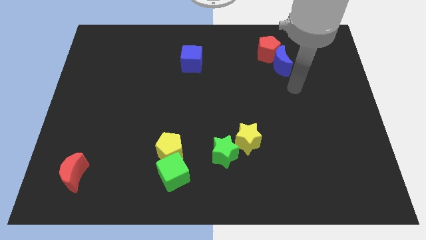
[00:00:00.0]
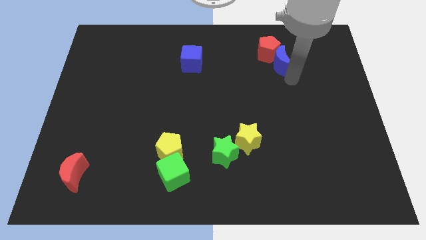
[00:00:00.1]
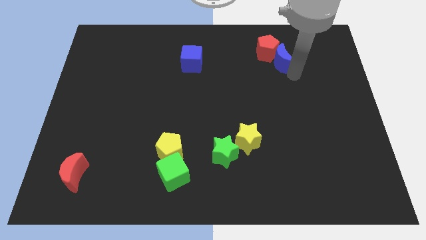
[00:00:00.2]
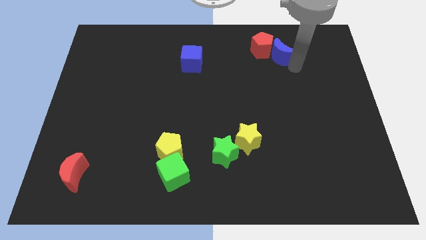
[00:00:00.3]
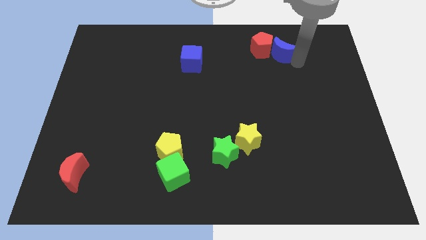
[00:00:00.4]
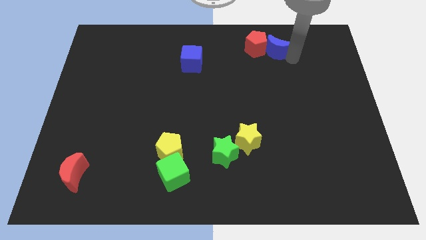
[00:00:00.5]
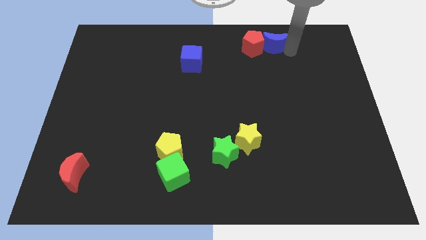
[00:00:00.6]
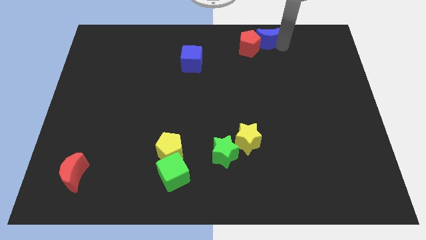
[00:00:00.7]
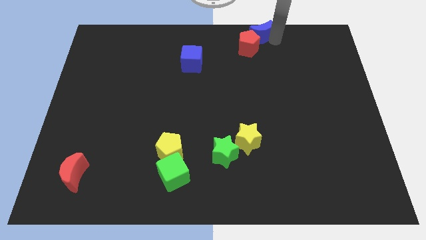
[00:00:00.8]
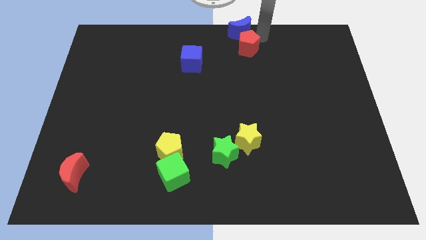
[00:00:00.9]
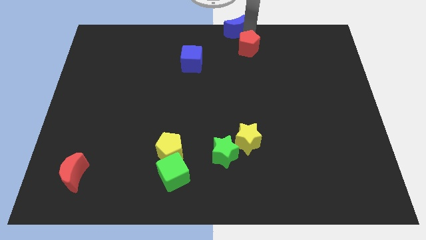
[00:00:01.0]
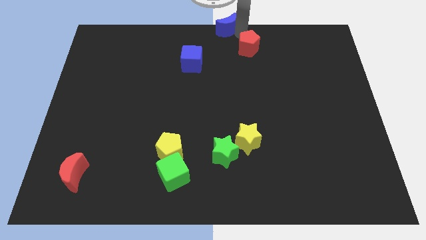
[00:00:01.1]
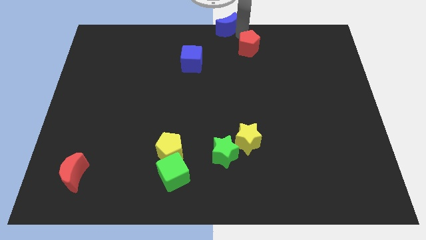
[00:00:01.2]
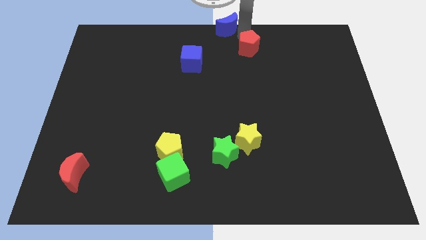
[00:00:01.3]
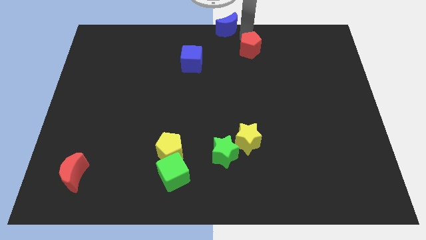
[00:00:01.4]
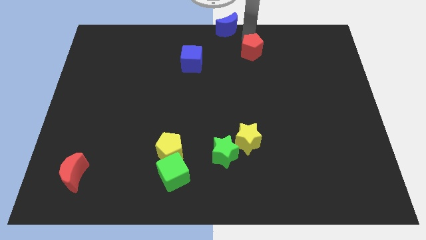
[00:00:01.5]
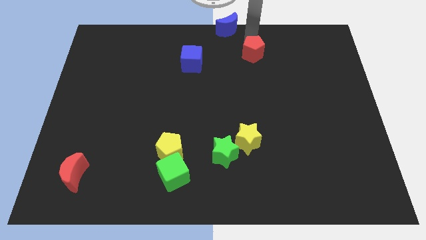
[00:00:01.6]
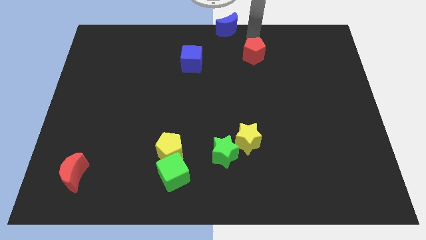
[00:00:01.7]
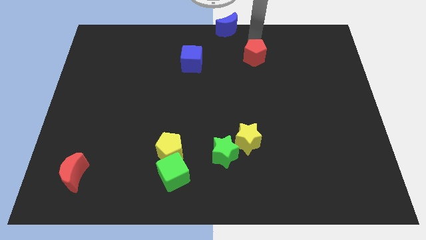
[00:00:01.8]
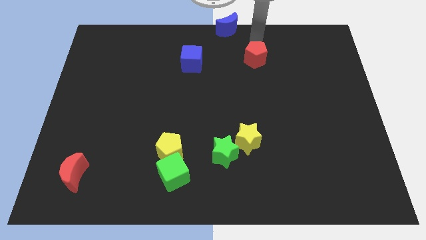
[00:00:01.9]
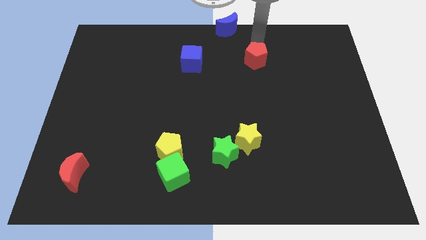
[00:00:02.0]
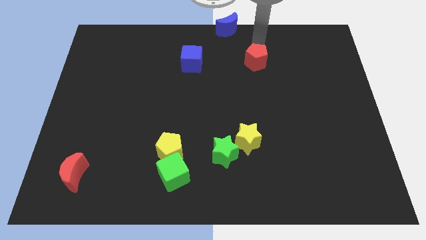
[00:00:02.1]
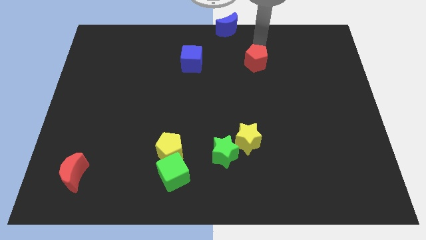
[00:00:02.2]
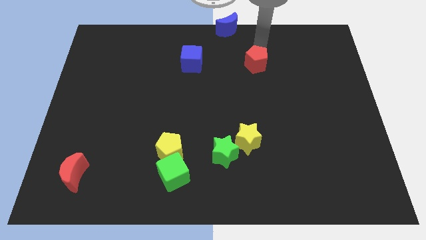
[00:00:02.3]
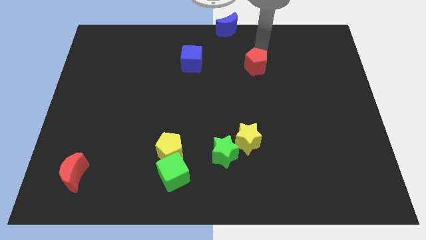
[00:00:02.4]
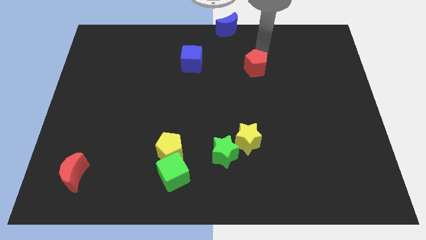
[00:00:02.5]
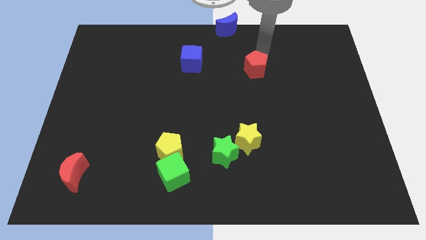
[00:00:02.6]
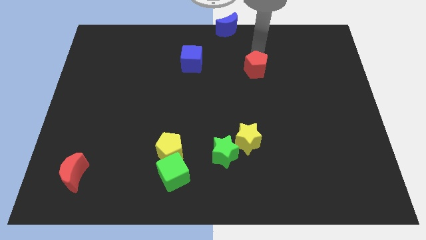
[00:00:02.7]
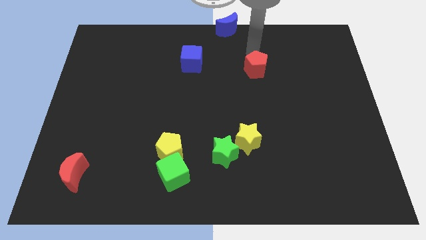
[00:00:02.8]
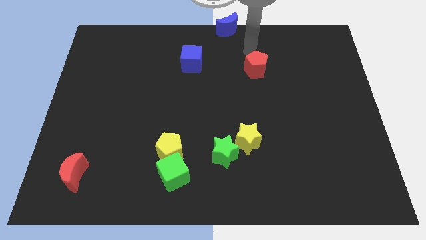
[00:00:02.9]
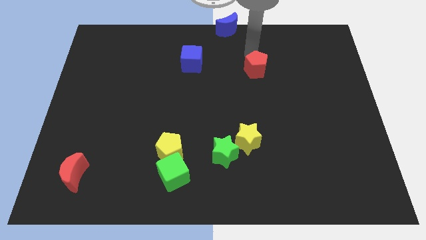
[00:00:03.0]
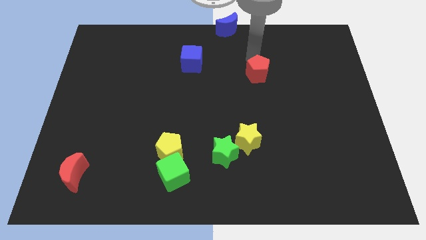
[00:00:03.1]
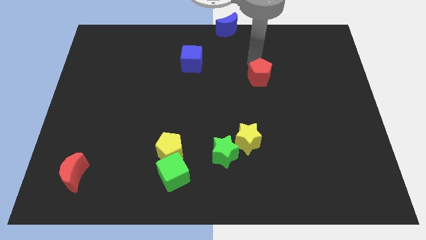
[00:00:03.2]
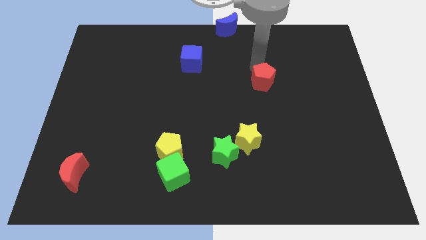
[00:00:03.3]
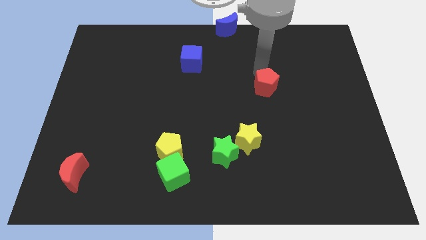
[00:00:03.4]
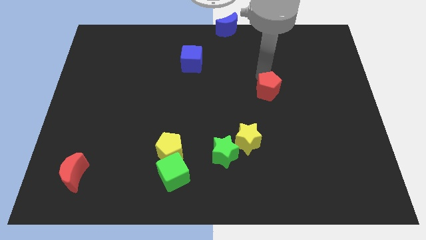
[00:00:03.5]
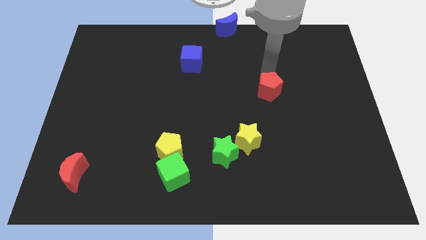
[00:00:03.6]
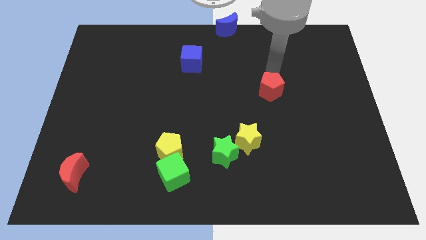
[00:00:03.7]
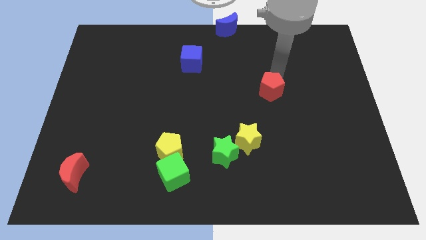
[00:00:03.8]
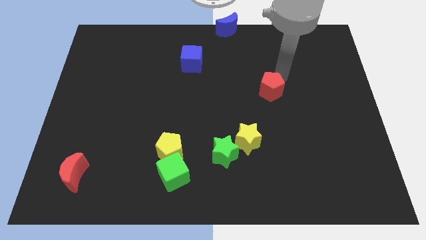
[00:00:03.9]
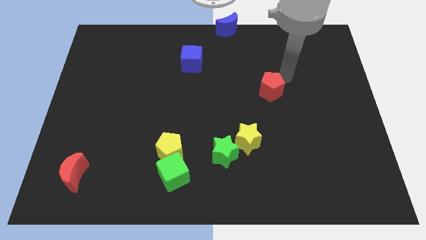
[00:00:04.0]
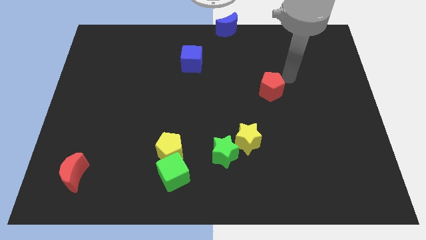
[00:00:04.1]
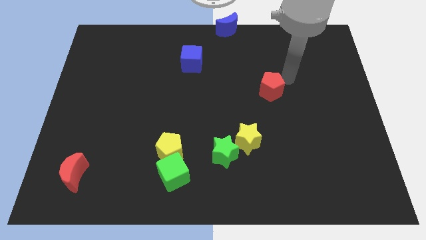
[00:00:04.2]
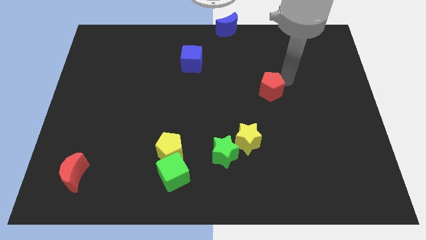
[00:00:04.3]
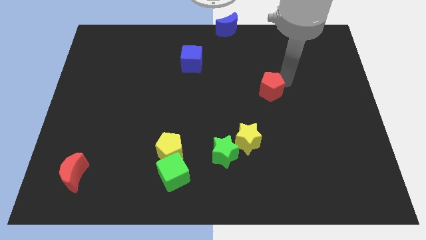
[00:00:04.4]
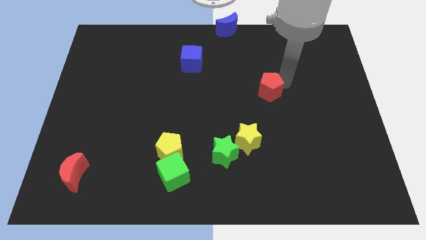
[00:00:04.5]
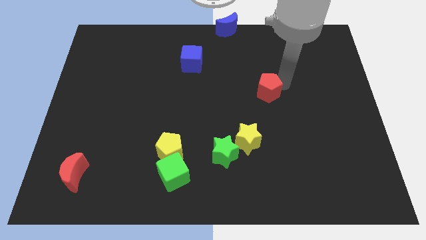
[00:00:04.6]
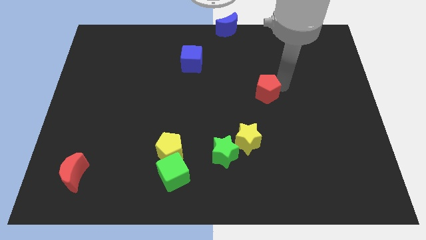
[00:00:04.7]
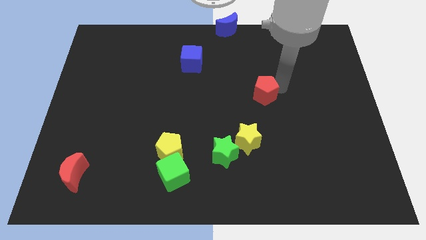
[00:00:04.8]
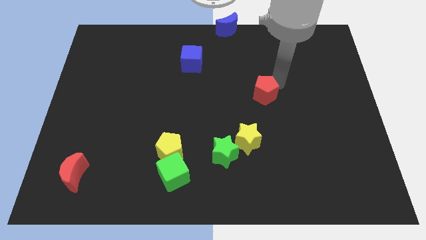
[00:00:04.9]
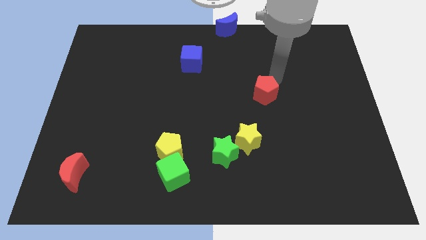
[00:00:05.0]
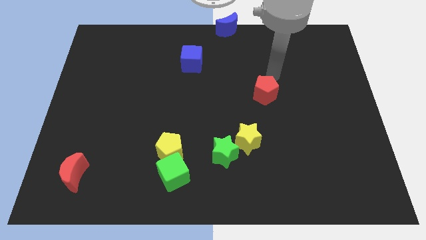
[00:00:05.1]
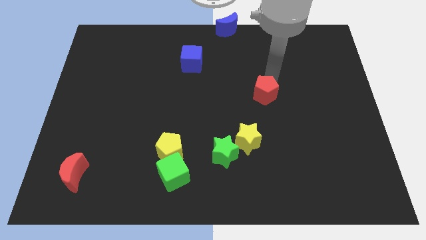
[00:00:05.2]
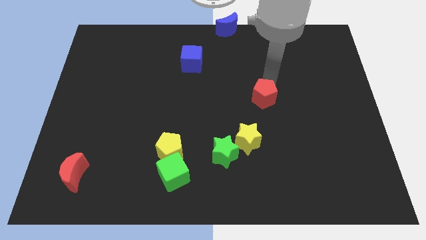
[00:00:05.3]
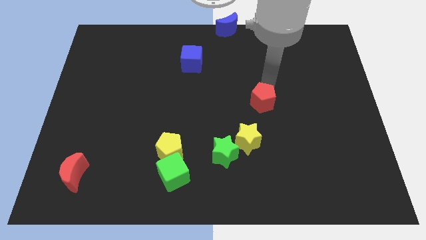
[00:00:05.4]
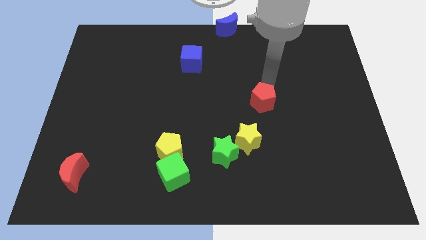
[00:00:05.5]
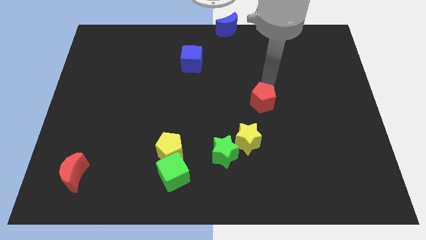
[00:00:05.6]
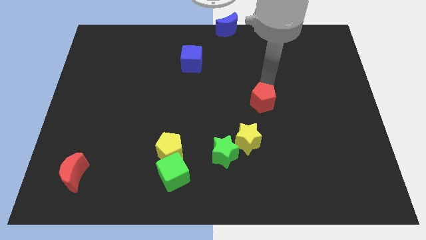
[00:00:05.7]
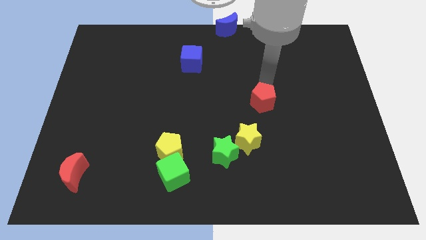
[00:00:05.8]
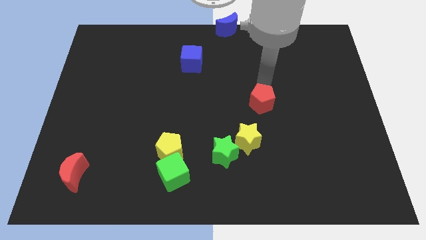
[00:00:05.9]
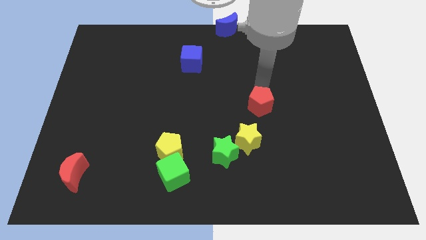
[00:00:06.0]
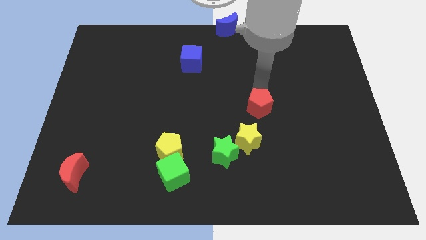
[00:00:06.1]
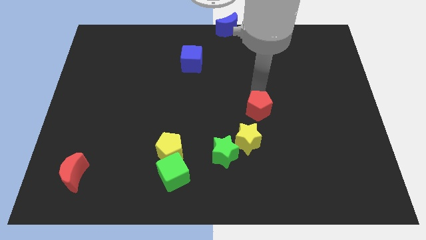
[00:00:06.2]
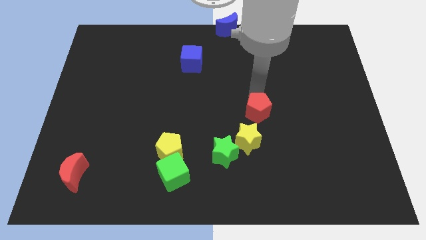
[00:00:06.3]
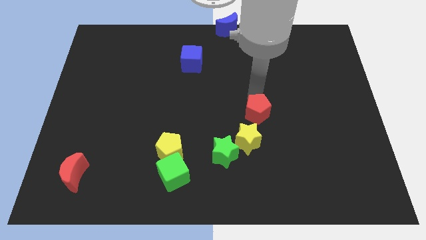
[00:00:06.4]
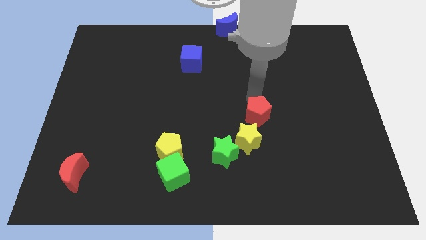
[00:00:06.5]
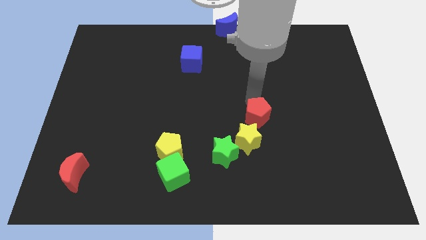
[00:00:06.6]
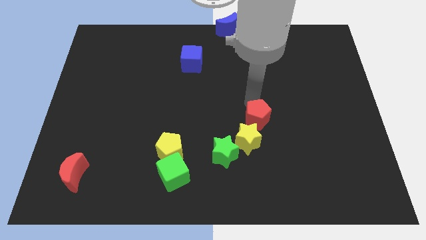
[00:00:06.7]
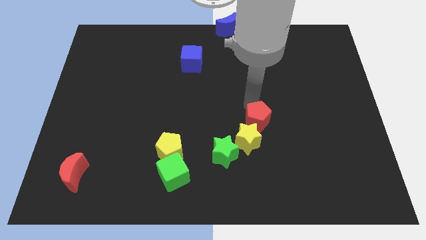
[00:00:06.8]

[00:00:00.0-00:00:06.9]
put the red pentagon close to the yellow star

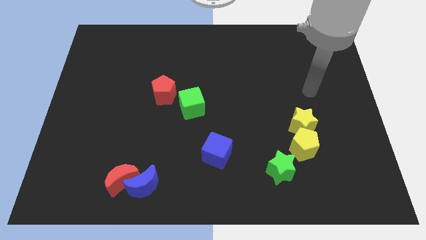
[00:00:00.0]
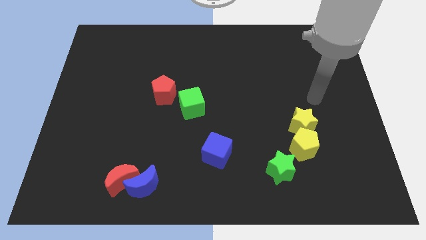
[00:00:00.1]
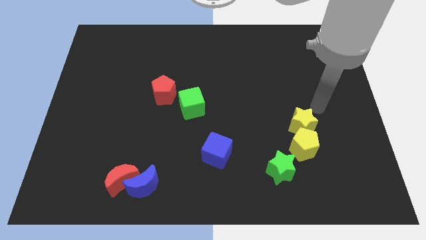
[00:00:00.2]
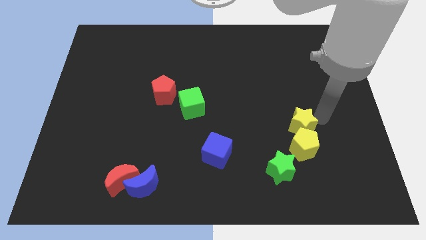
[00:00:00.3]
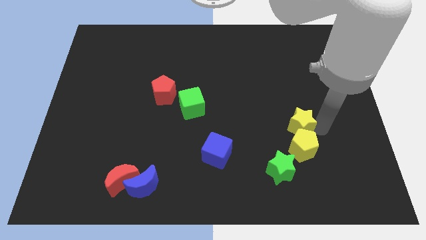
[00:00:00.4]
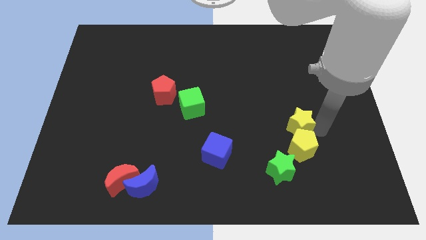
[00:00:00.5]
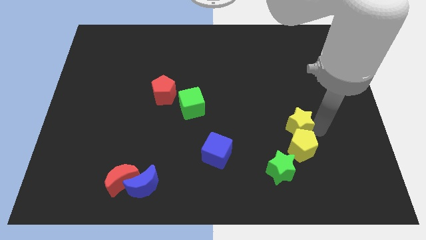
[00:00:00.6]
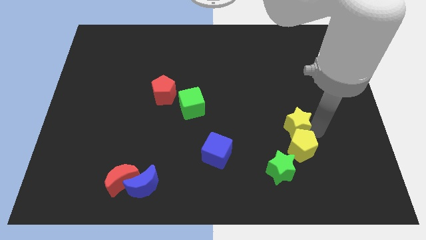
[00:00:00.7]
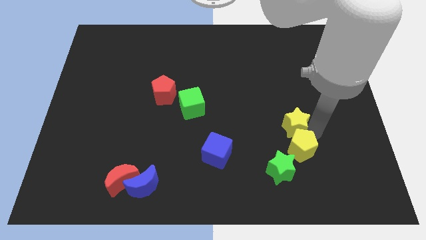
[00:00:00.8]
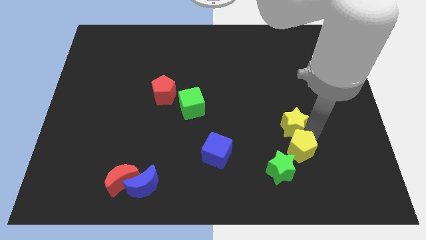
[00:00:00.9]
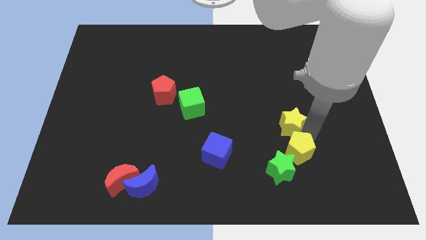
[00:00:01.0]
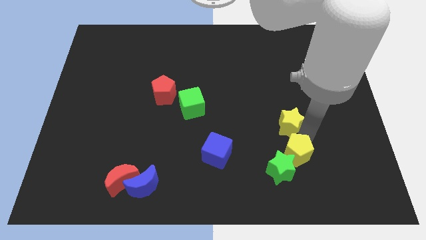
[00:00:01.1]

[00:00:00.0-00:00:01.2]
move the yellow pentagon to the green star
